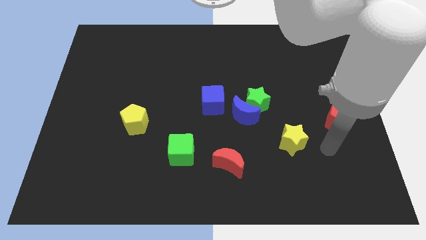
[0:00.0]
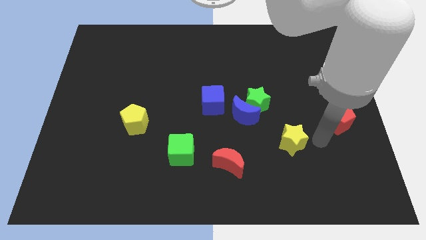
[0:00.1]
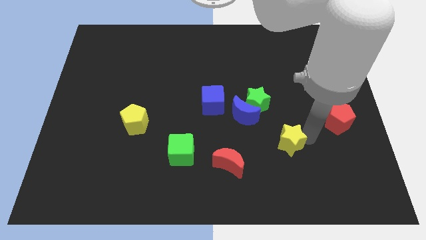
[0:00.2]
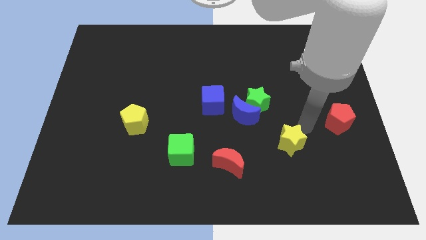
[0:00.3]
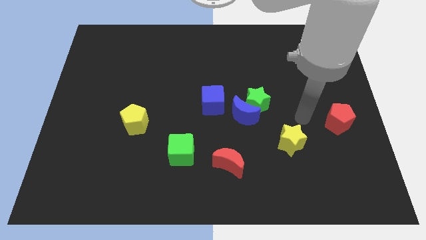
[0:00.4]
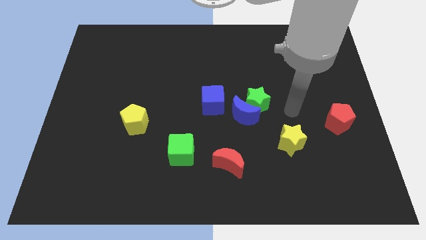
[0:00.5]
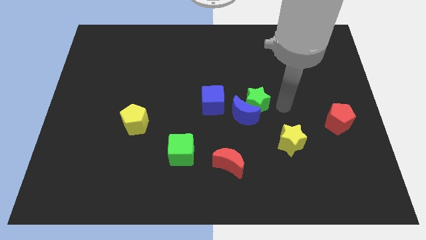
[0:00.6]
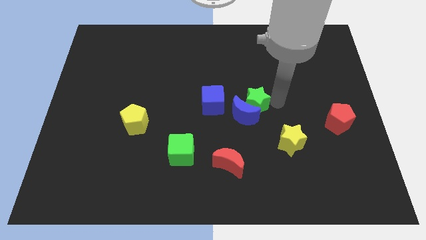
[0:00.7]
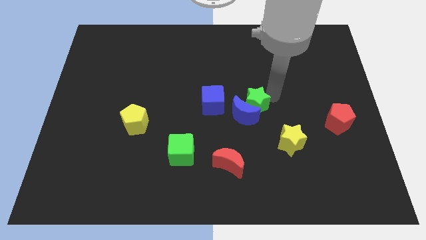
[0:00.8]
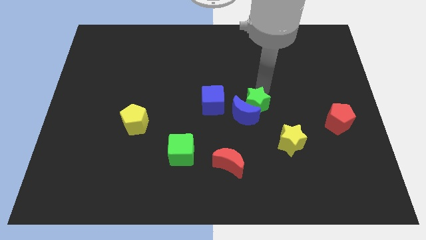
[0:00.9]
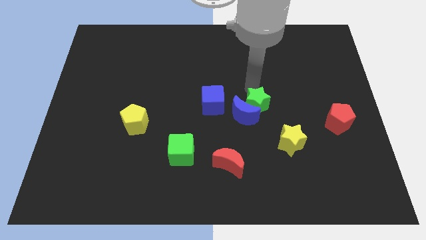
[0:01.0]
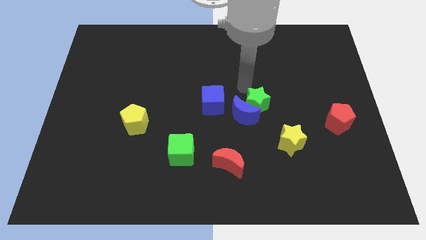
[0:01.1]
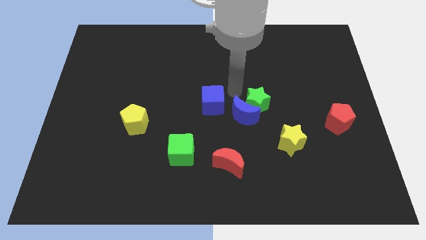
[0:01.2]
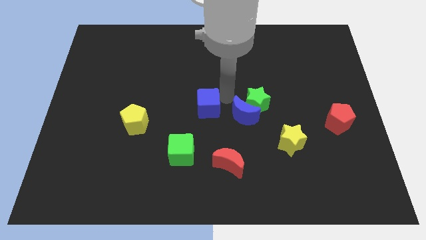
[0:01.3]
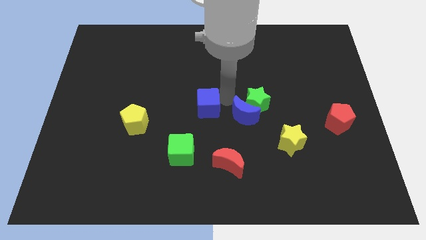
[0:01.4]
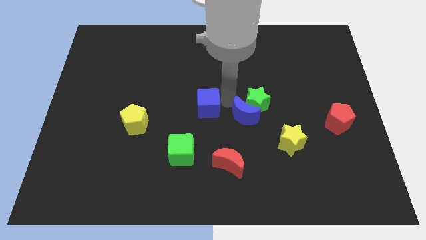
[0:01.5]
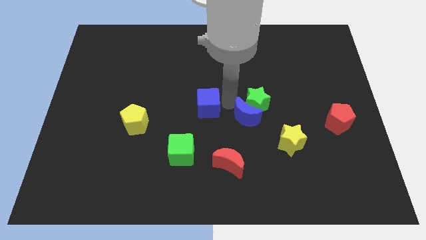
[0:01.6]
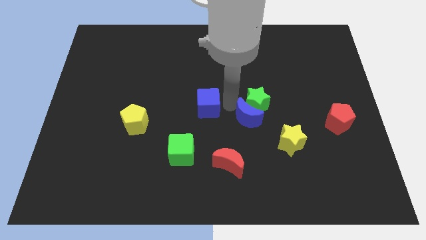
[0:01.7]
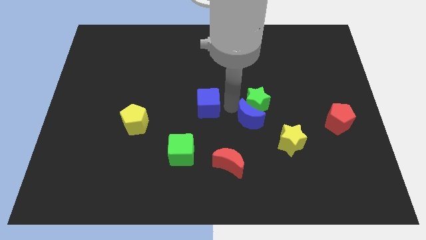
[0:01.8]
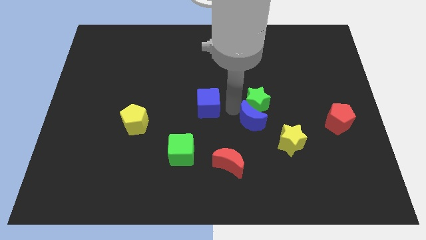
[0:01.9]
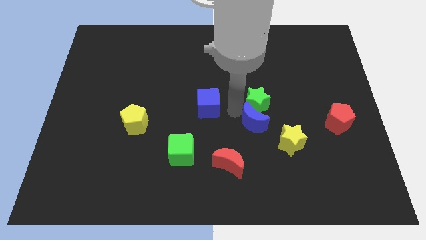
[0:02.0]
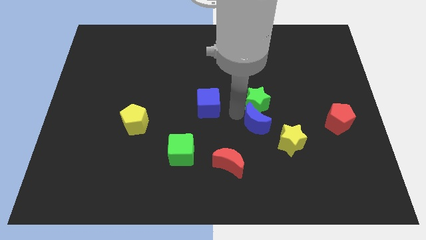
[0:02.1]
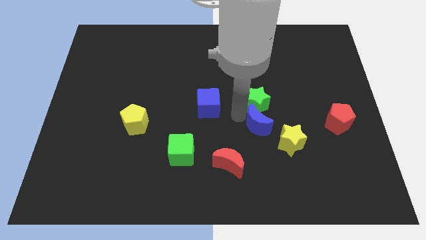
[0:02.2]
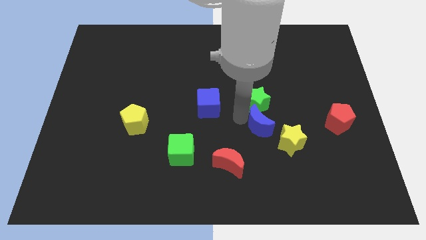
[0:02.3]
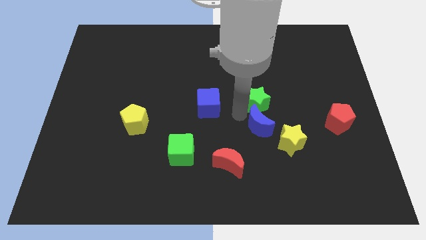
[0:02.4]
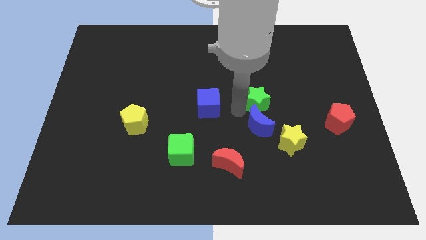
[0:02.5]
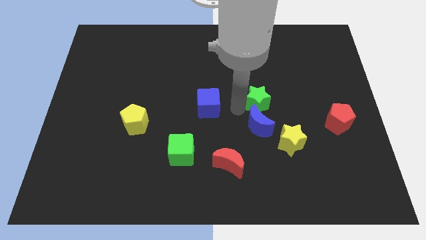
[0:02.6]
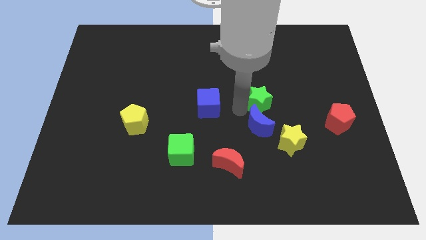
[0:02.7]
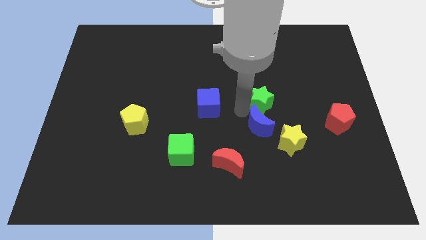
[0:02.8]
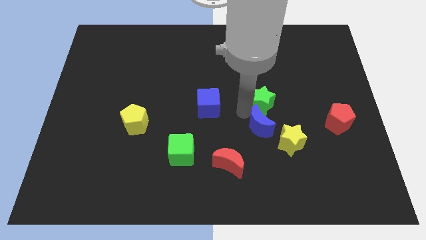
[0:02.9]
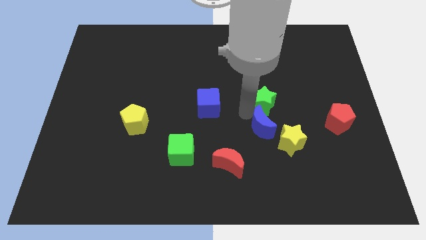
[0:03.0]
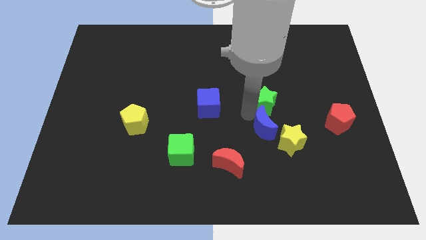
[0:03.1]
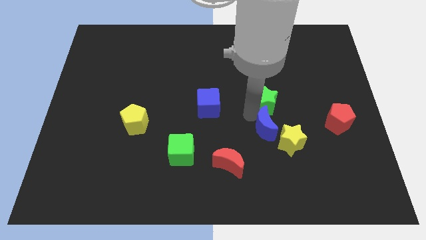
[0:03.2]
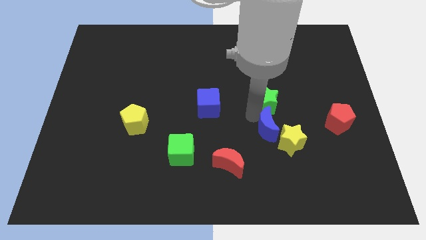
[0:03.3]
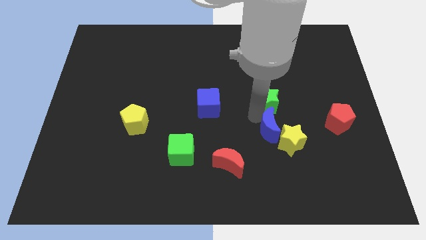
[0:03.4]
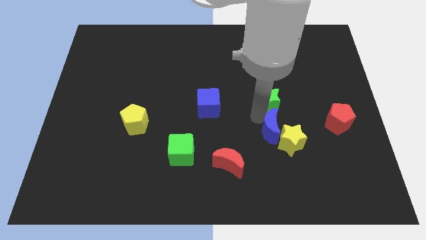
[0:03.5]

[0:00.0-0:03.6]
pull the blue moon apart from the green star and blue cube

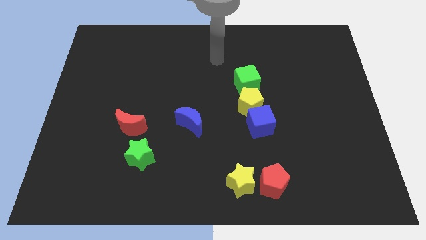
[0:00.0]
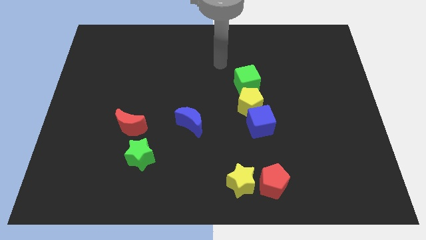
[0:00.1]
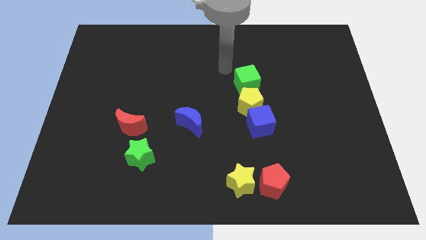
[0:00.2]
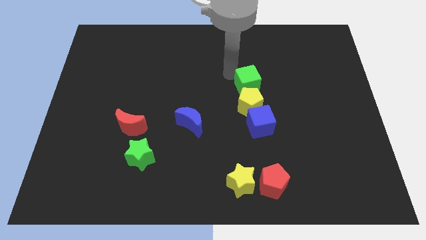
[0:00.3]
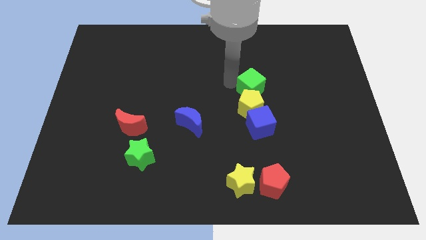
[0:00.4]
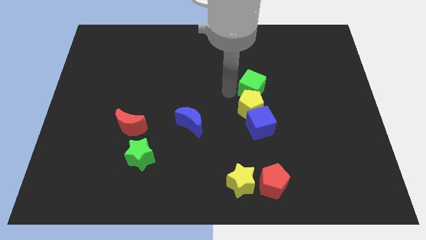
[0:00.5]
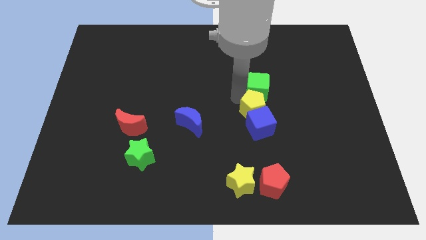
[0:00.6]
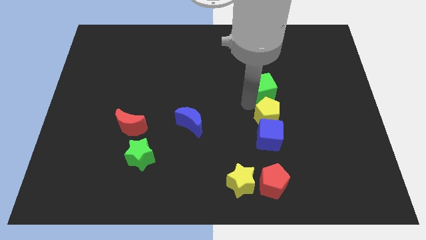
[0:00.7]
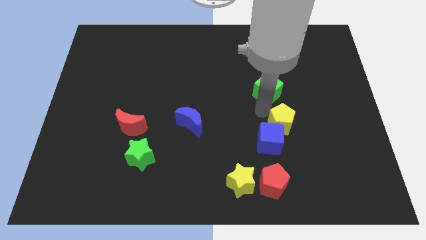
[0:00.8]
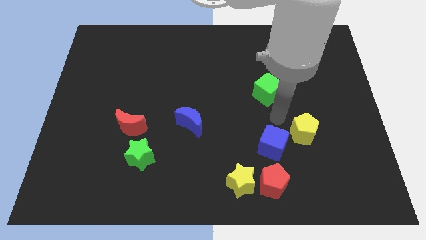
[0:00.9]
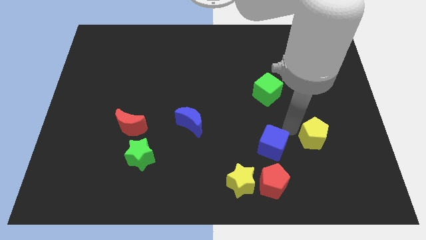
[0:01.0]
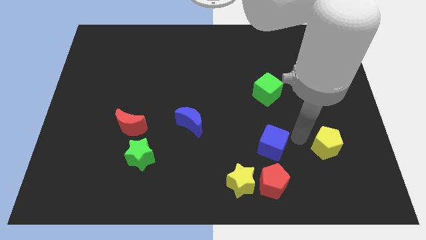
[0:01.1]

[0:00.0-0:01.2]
separate the blue cube from the yellow pentagon

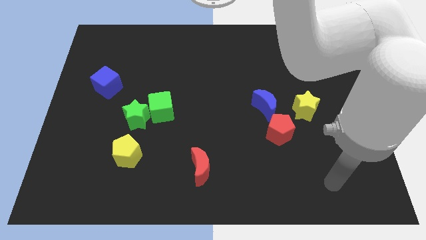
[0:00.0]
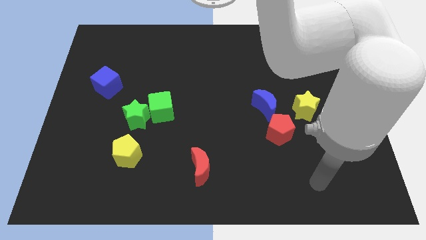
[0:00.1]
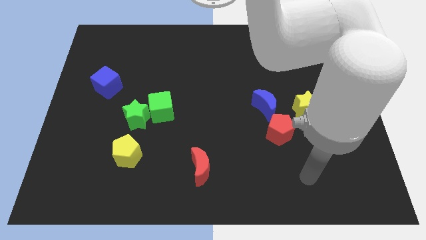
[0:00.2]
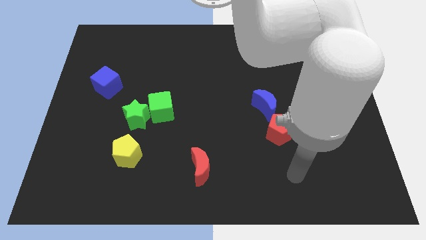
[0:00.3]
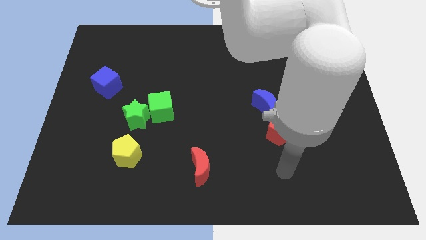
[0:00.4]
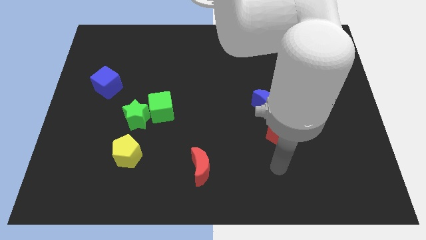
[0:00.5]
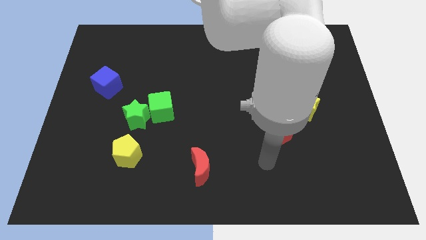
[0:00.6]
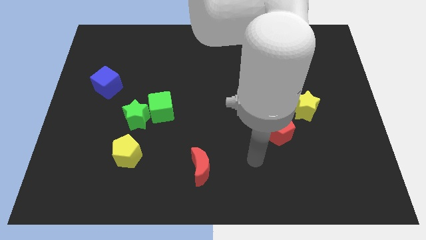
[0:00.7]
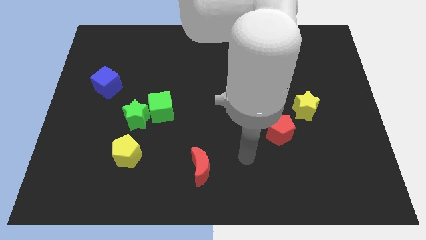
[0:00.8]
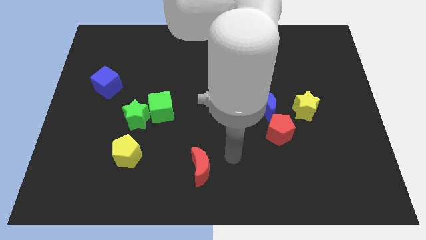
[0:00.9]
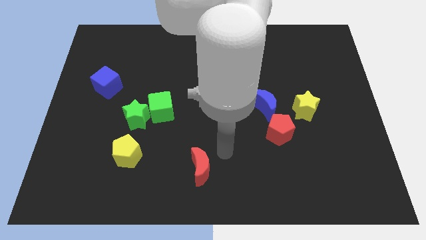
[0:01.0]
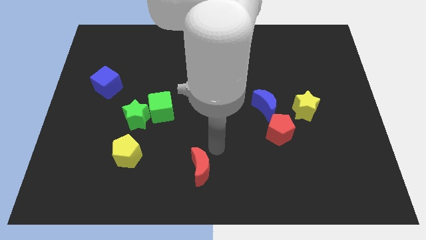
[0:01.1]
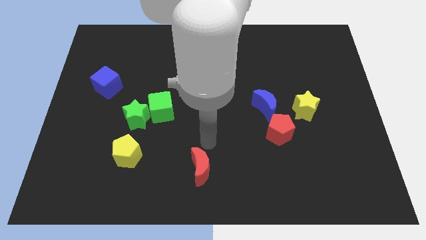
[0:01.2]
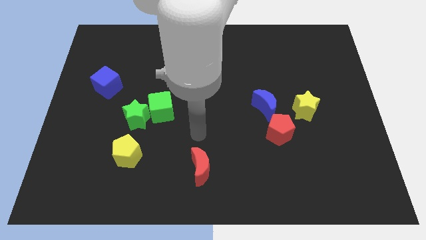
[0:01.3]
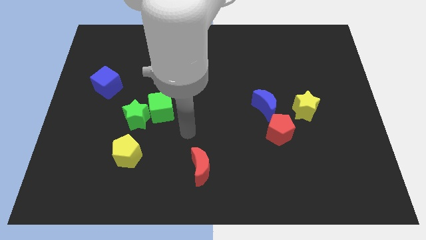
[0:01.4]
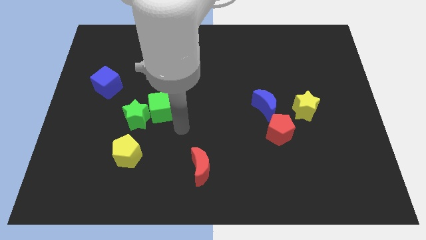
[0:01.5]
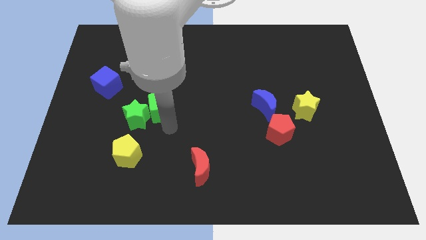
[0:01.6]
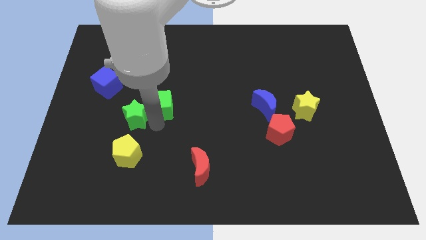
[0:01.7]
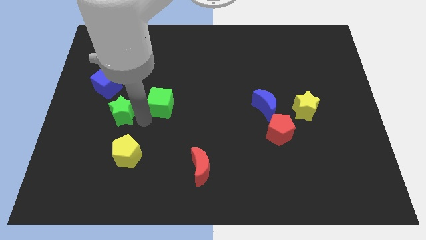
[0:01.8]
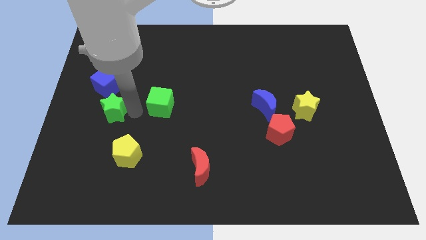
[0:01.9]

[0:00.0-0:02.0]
move the green cube away from the green star

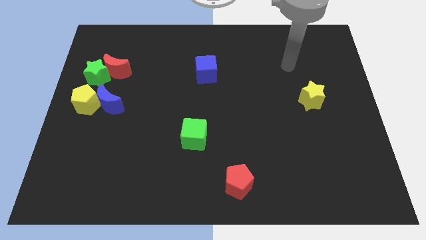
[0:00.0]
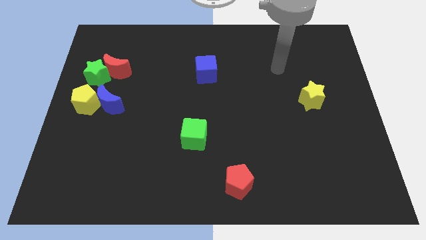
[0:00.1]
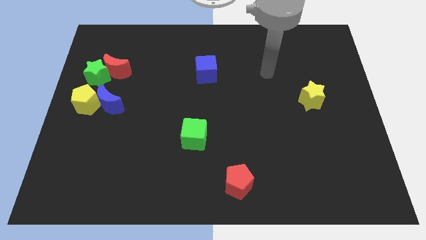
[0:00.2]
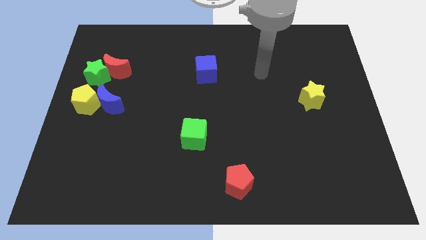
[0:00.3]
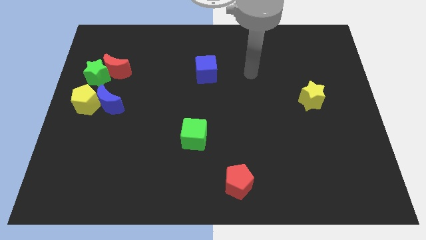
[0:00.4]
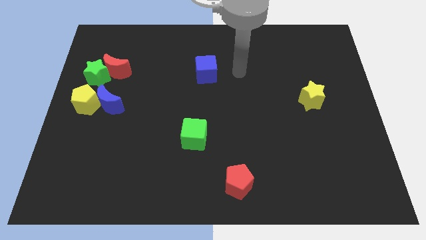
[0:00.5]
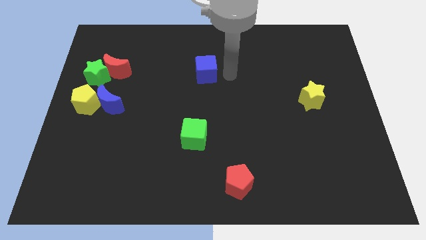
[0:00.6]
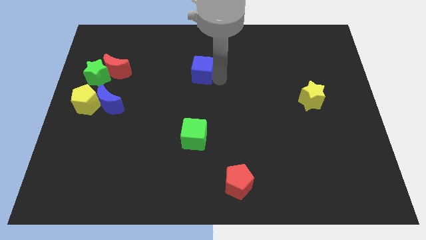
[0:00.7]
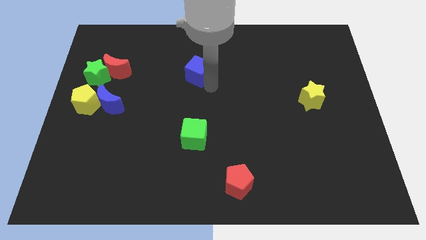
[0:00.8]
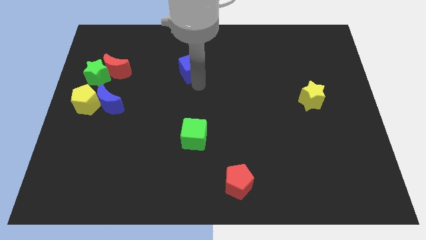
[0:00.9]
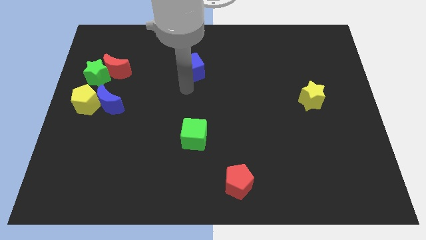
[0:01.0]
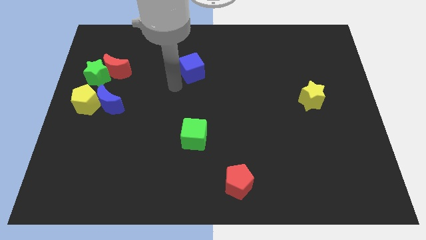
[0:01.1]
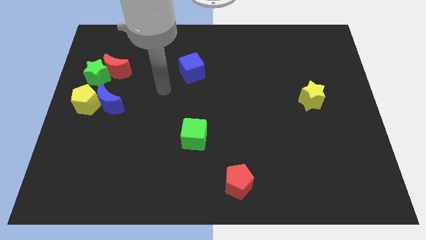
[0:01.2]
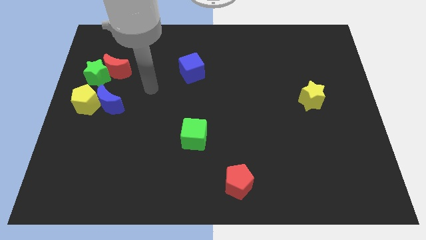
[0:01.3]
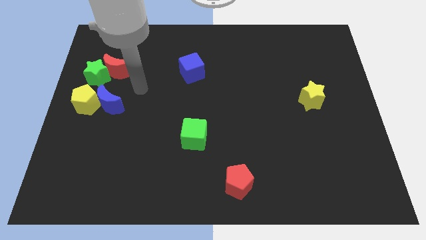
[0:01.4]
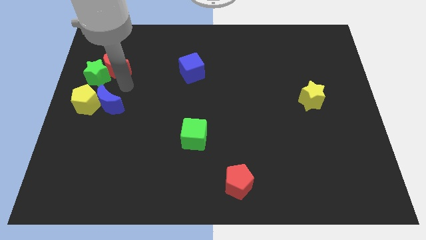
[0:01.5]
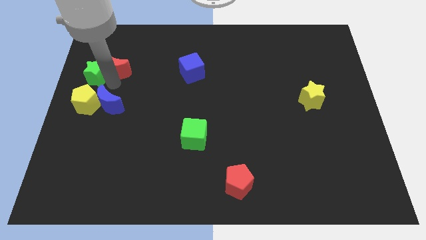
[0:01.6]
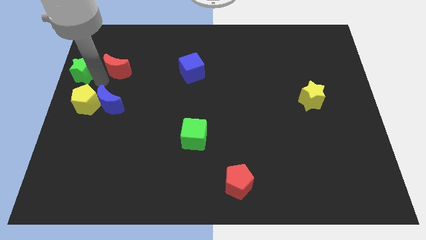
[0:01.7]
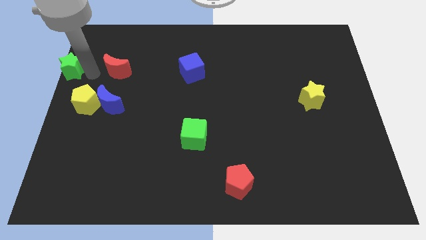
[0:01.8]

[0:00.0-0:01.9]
separate the red moon from the green star

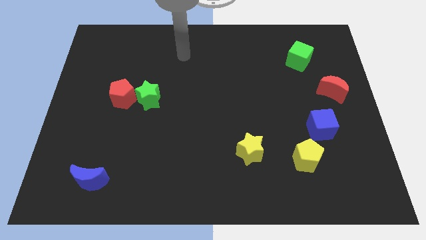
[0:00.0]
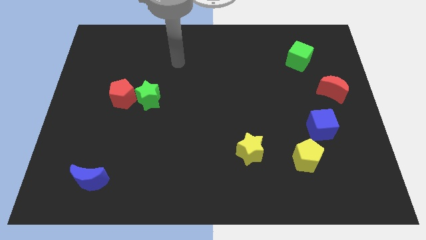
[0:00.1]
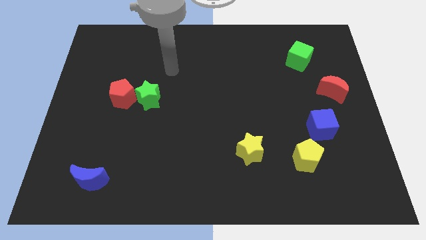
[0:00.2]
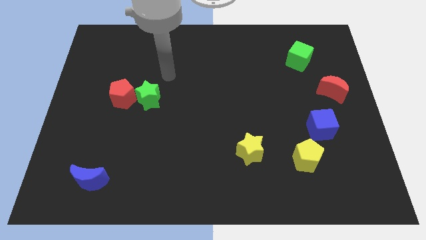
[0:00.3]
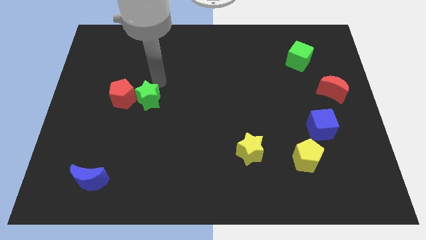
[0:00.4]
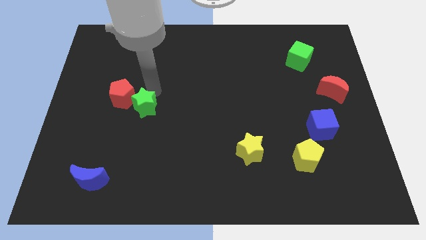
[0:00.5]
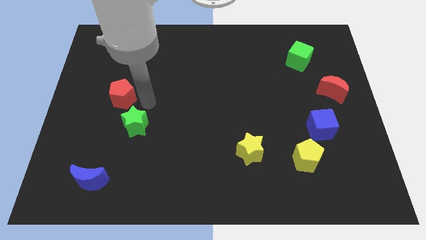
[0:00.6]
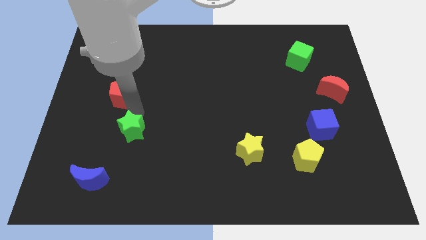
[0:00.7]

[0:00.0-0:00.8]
separate the red pentagon from the green star
